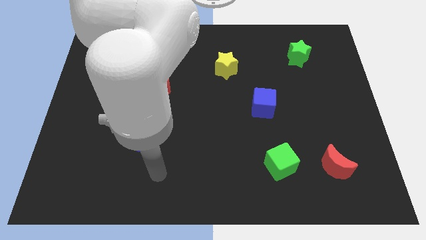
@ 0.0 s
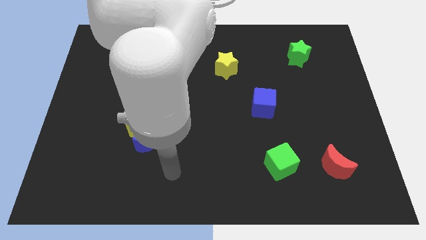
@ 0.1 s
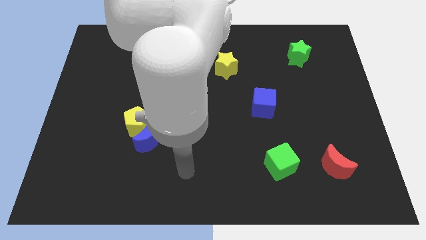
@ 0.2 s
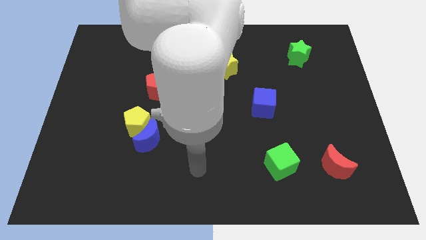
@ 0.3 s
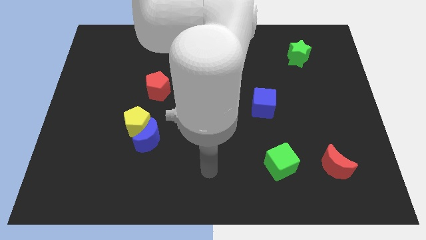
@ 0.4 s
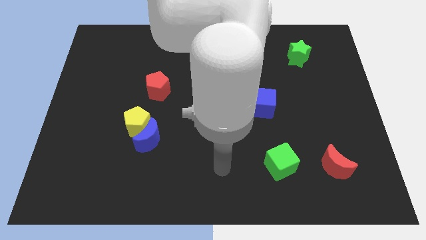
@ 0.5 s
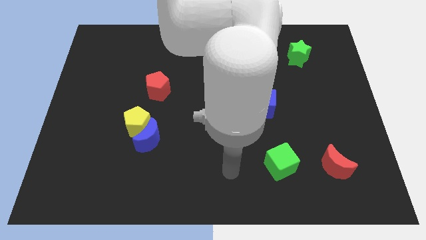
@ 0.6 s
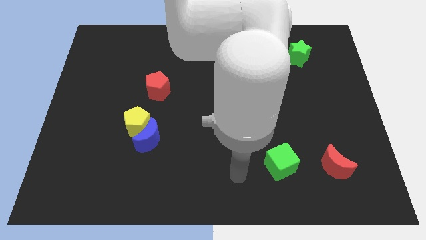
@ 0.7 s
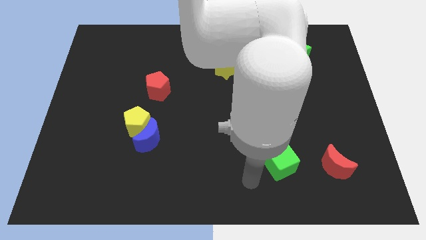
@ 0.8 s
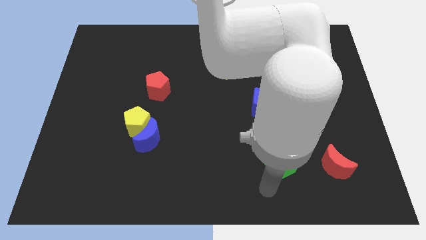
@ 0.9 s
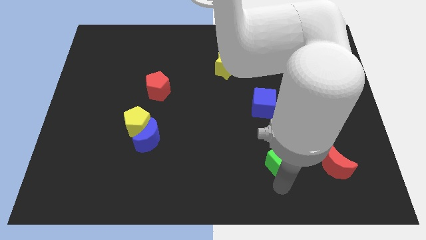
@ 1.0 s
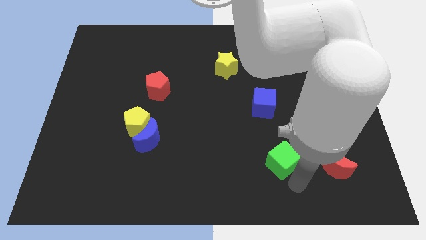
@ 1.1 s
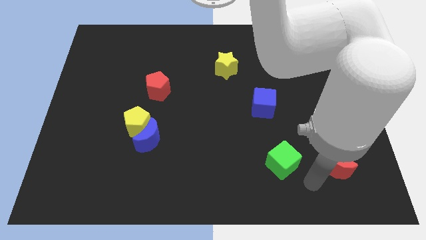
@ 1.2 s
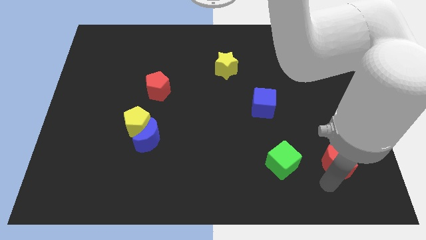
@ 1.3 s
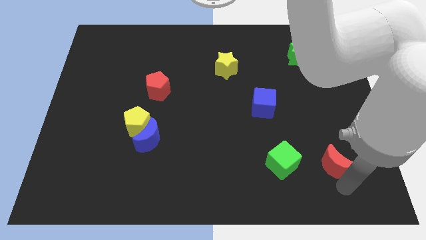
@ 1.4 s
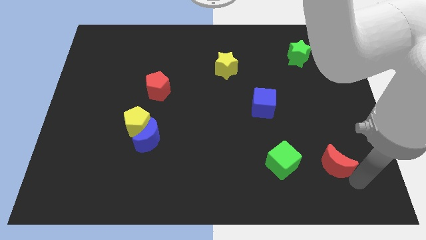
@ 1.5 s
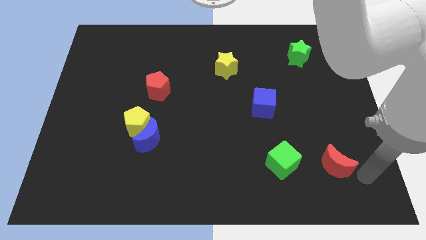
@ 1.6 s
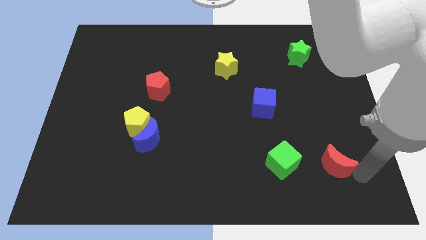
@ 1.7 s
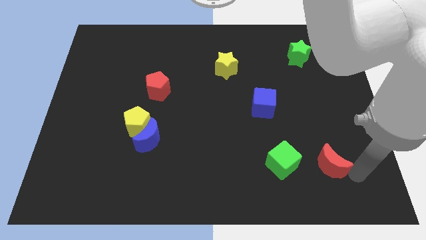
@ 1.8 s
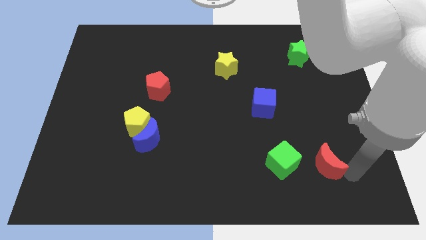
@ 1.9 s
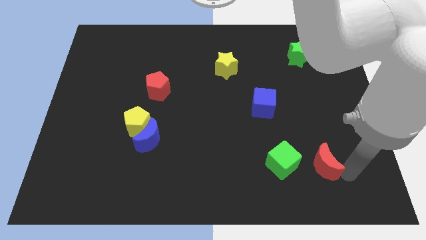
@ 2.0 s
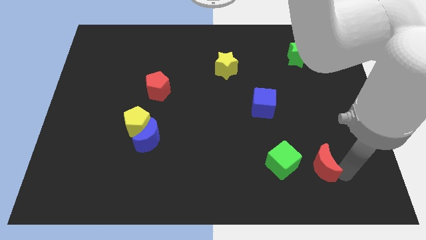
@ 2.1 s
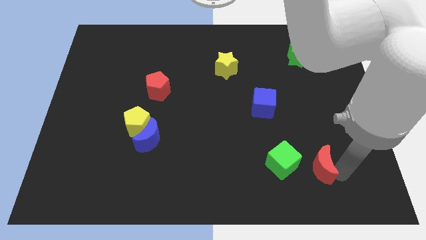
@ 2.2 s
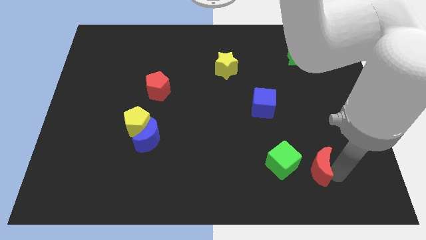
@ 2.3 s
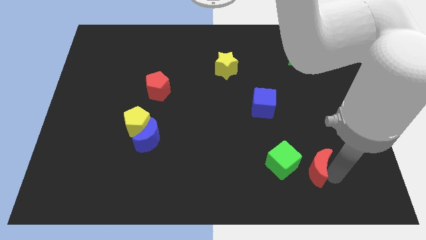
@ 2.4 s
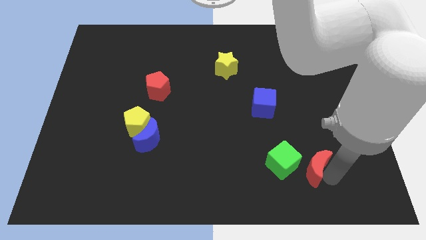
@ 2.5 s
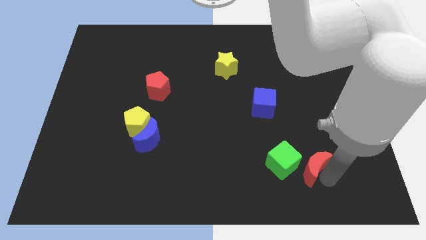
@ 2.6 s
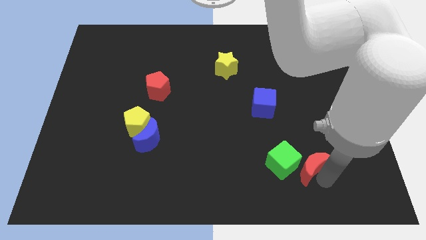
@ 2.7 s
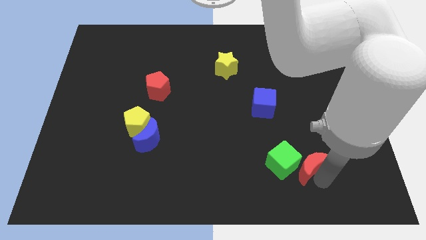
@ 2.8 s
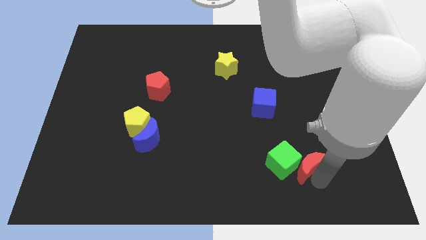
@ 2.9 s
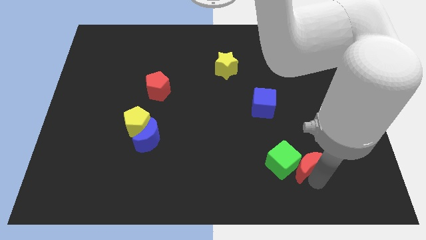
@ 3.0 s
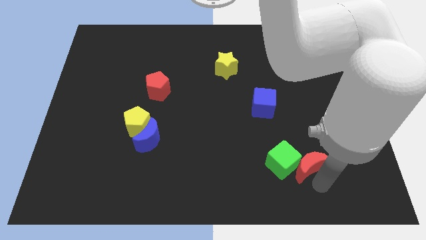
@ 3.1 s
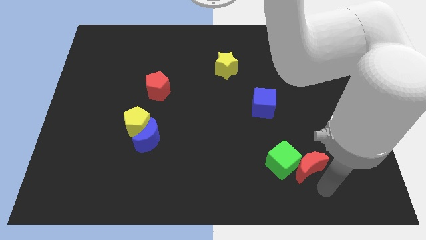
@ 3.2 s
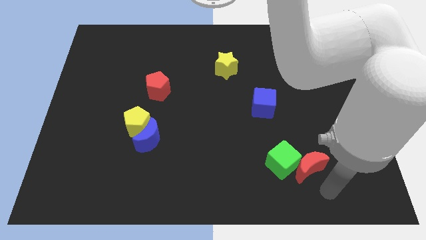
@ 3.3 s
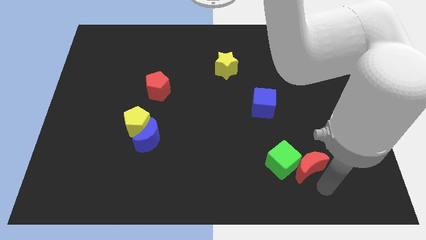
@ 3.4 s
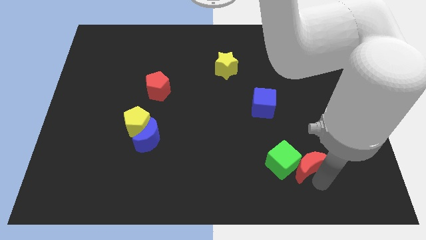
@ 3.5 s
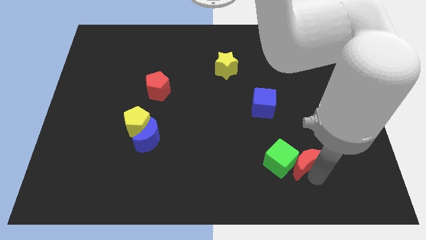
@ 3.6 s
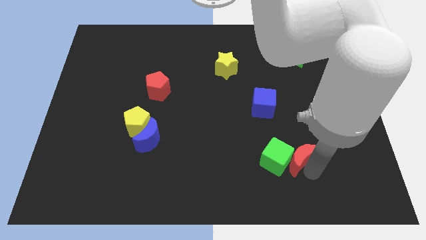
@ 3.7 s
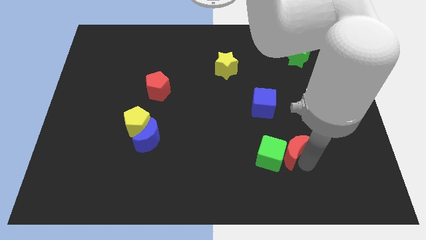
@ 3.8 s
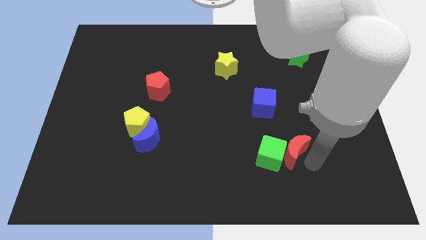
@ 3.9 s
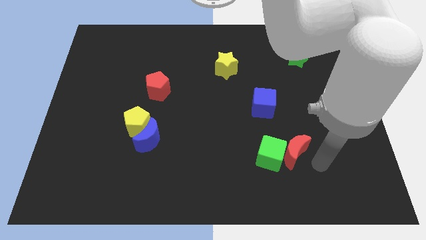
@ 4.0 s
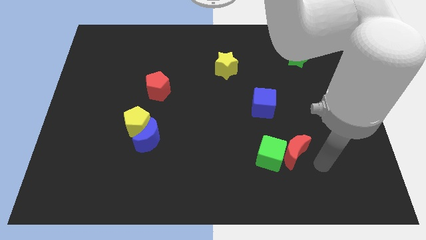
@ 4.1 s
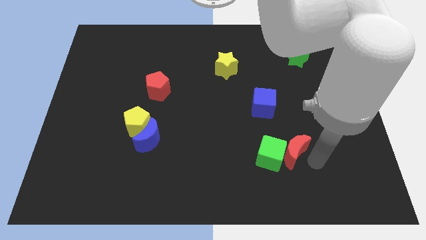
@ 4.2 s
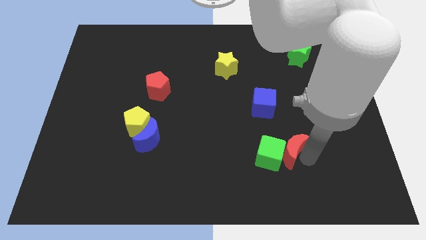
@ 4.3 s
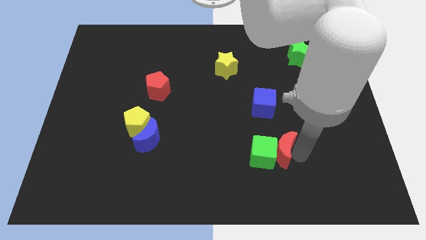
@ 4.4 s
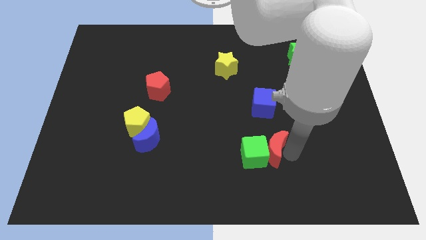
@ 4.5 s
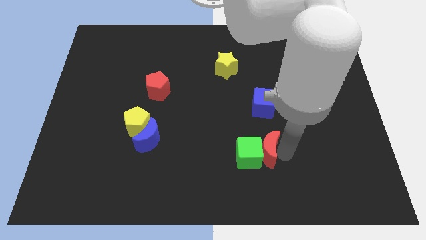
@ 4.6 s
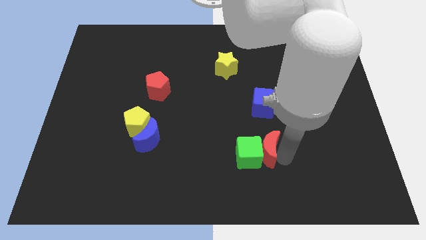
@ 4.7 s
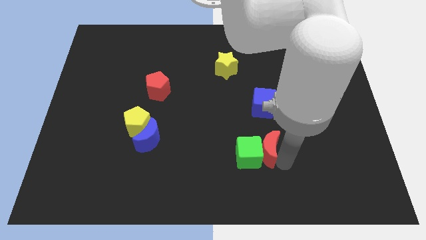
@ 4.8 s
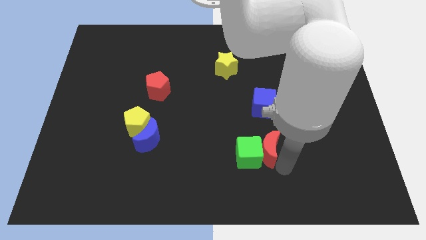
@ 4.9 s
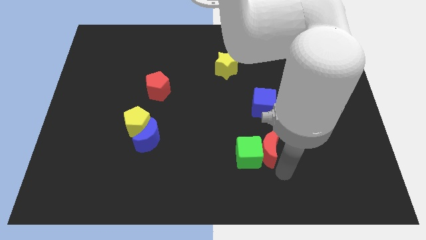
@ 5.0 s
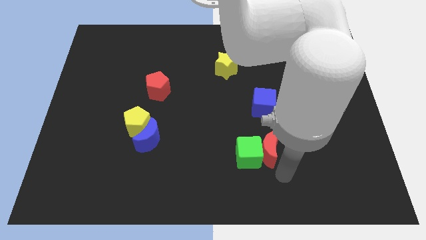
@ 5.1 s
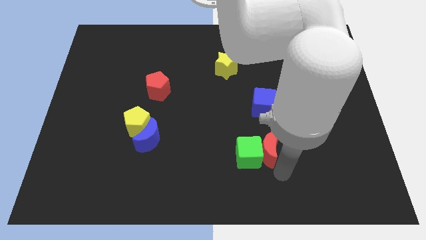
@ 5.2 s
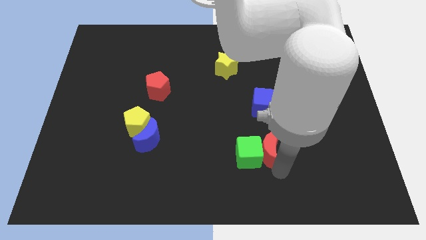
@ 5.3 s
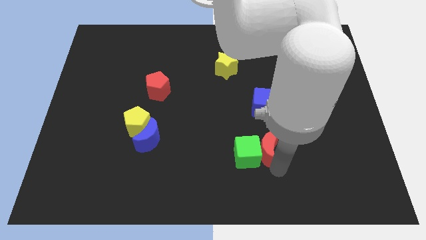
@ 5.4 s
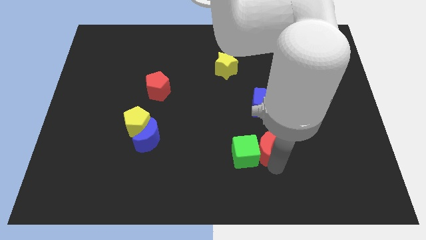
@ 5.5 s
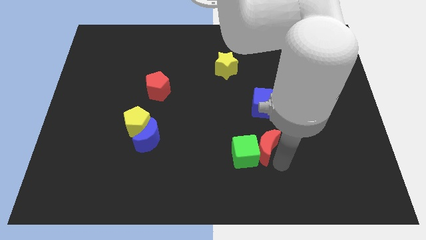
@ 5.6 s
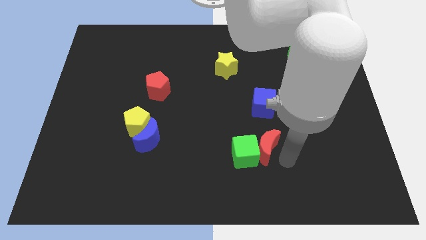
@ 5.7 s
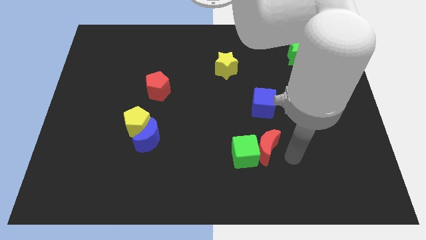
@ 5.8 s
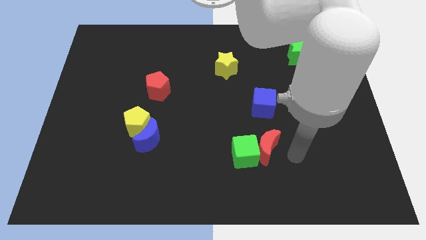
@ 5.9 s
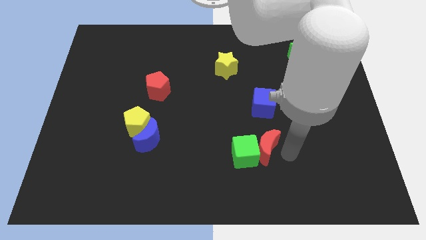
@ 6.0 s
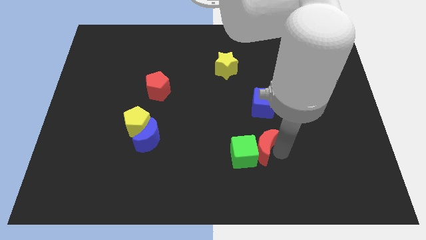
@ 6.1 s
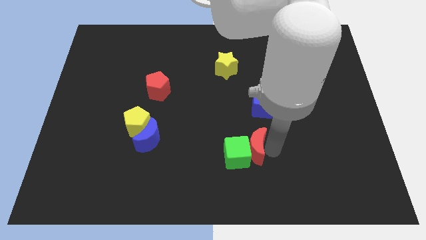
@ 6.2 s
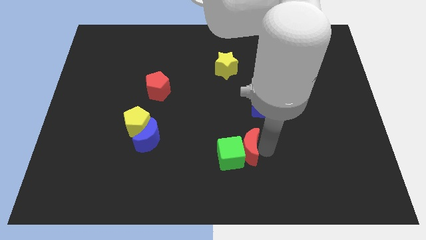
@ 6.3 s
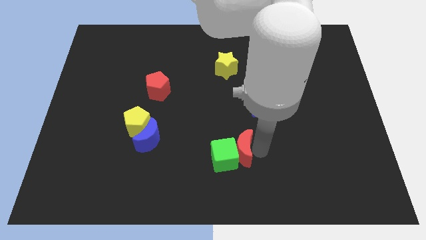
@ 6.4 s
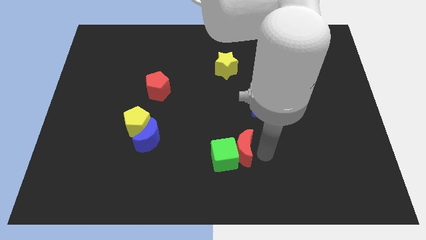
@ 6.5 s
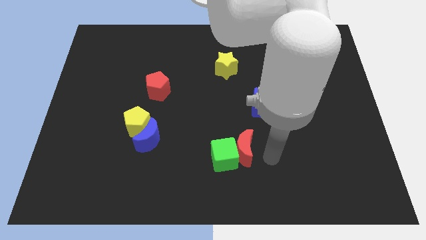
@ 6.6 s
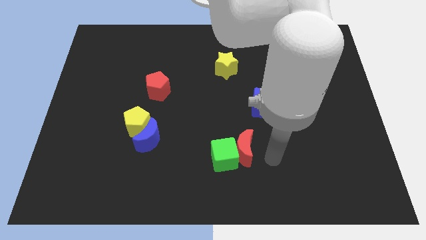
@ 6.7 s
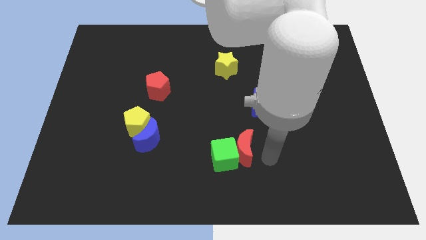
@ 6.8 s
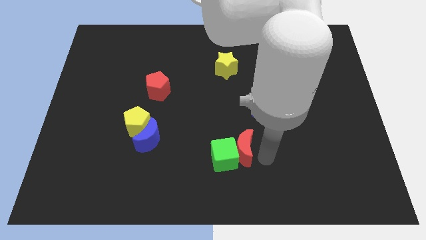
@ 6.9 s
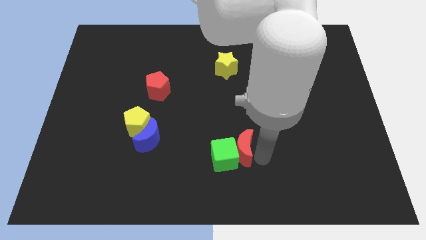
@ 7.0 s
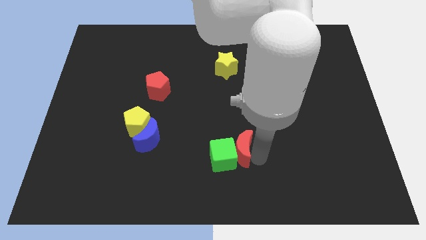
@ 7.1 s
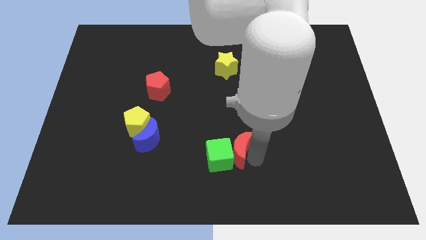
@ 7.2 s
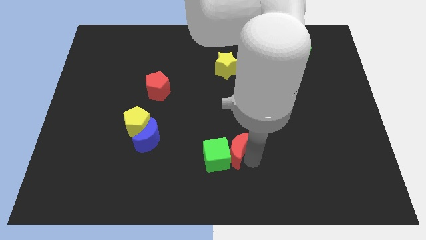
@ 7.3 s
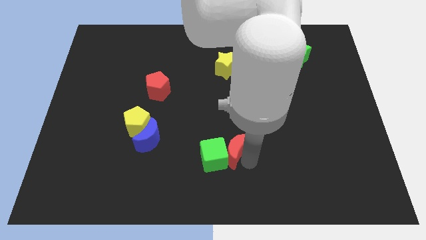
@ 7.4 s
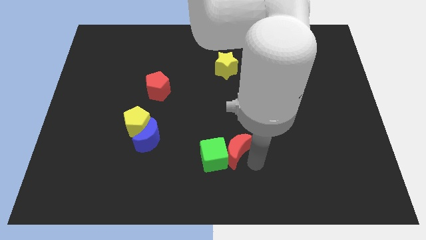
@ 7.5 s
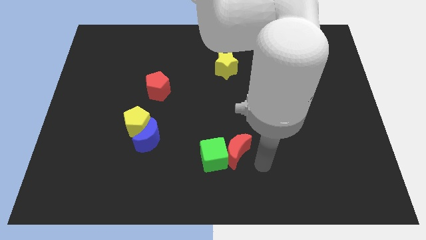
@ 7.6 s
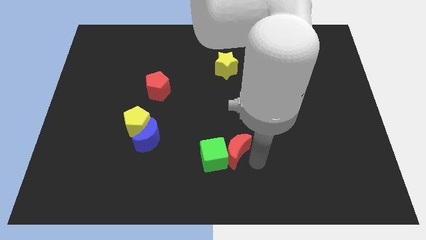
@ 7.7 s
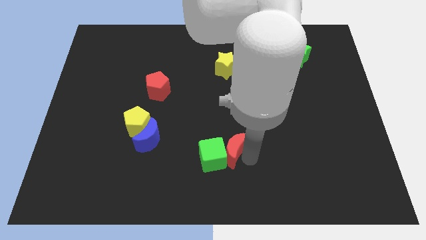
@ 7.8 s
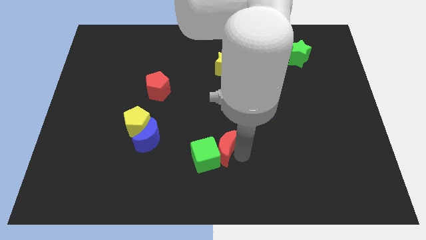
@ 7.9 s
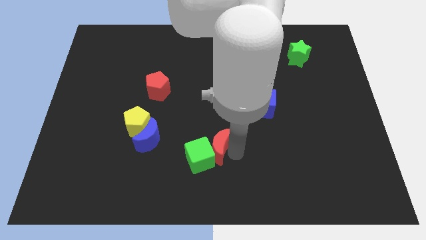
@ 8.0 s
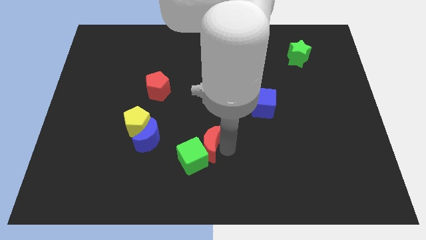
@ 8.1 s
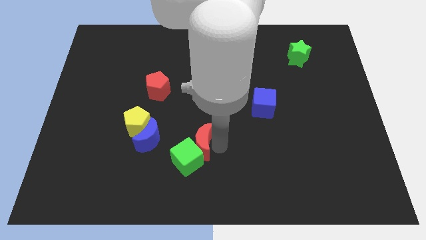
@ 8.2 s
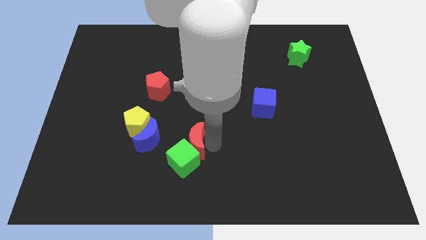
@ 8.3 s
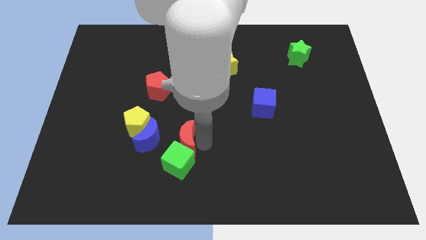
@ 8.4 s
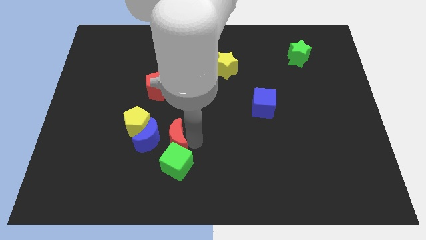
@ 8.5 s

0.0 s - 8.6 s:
move the red moon next to the blue moon
